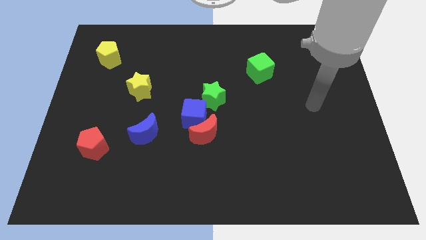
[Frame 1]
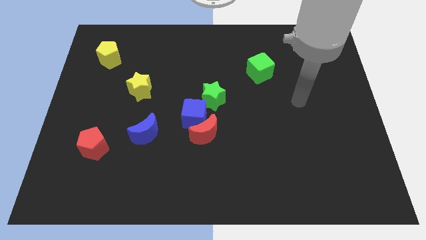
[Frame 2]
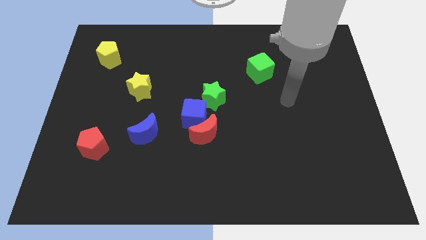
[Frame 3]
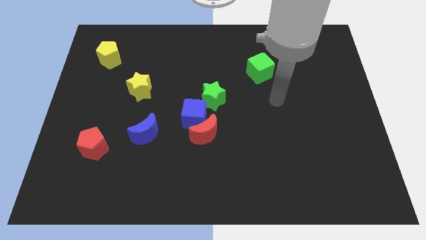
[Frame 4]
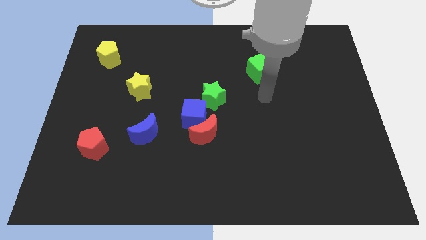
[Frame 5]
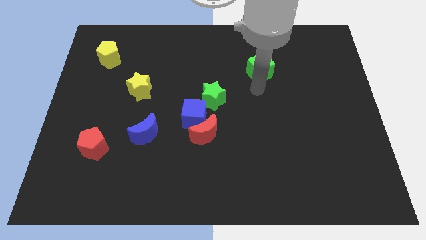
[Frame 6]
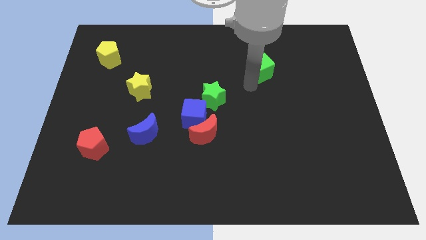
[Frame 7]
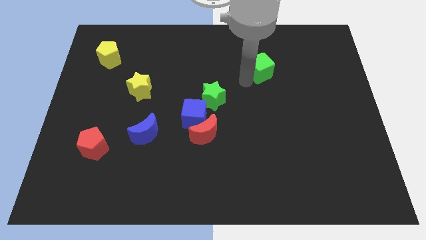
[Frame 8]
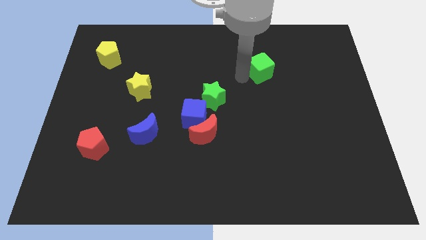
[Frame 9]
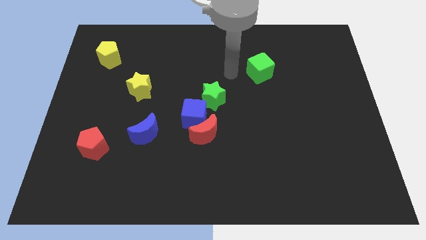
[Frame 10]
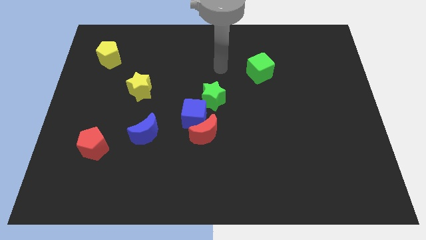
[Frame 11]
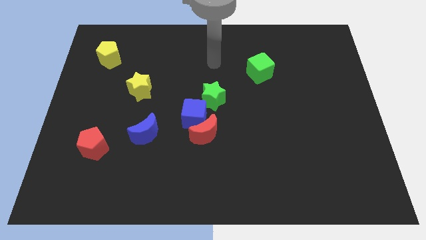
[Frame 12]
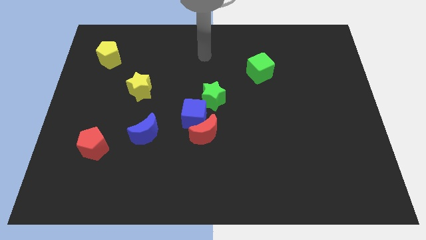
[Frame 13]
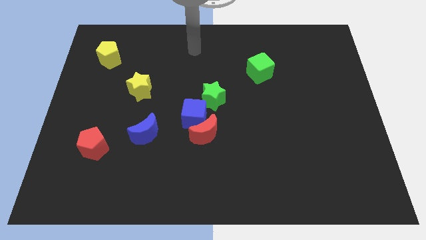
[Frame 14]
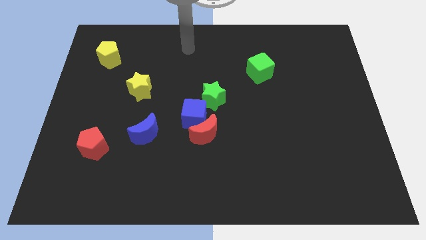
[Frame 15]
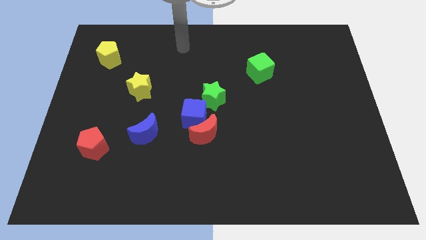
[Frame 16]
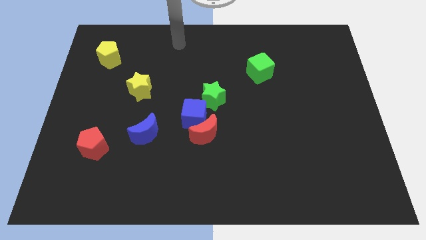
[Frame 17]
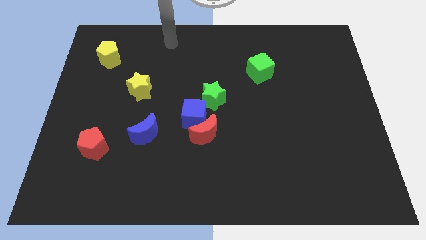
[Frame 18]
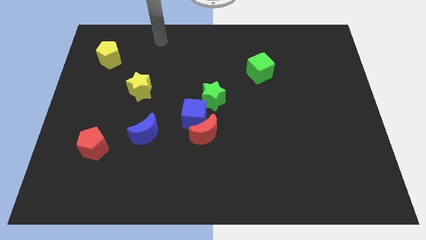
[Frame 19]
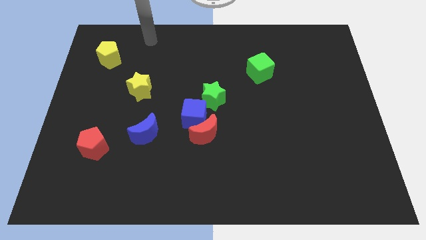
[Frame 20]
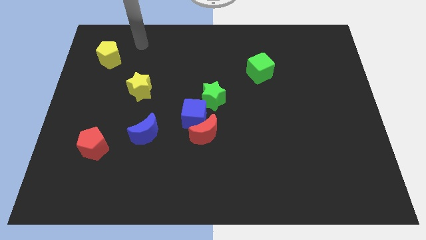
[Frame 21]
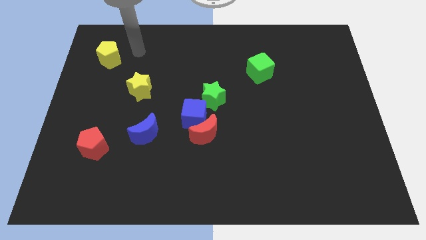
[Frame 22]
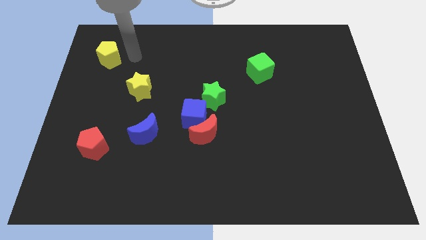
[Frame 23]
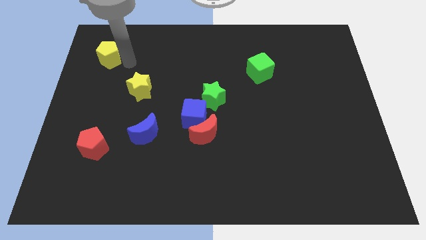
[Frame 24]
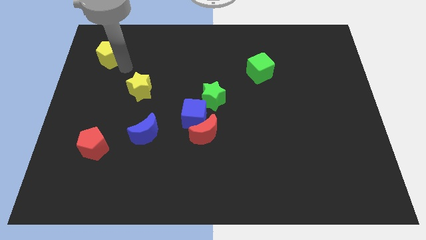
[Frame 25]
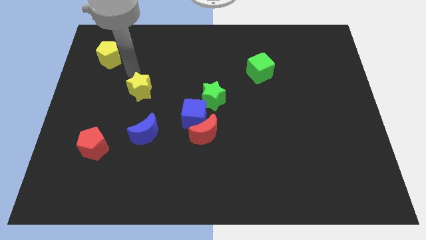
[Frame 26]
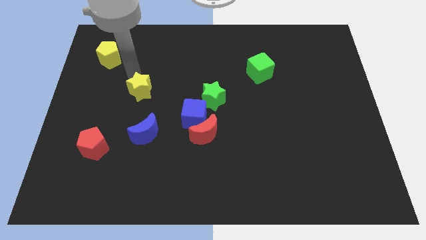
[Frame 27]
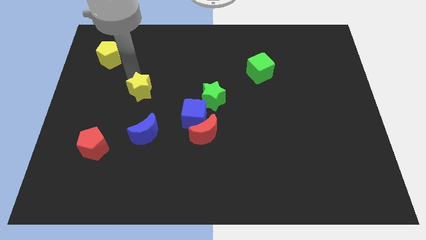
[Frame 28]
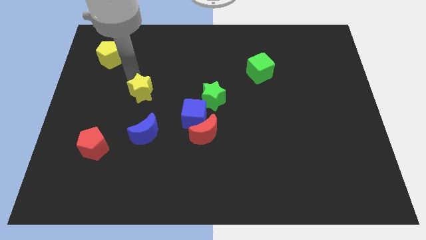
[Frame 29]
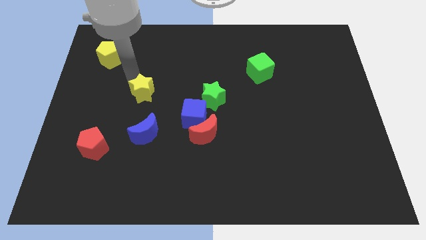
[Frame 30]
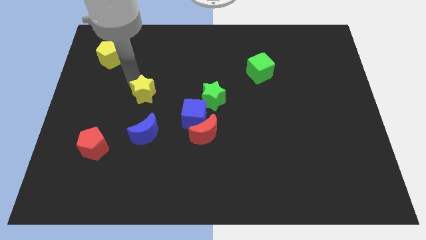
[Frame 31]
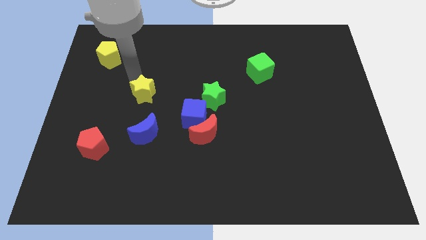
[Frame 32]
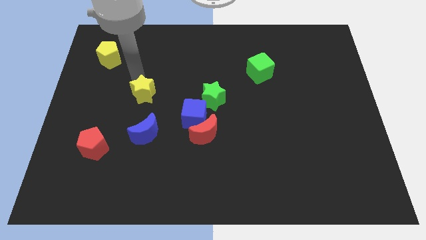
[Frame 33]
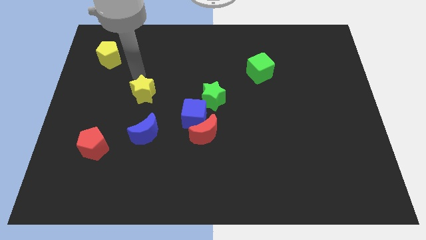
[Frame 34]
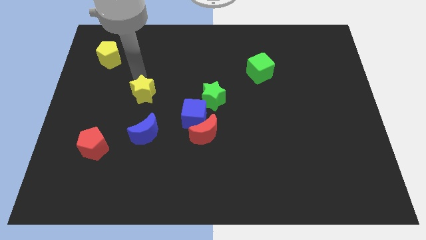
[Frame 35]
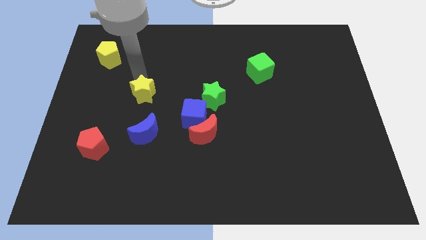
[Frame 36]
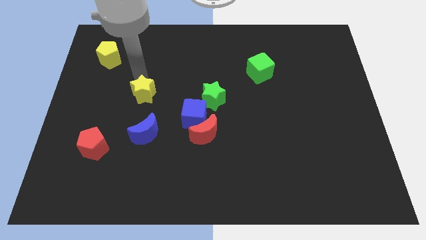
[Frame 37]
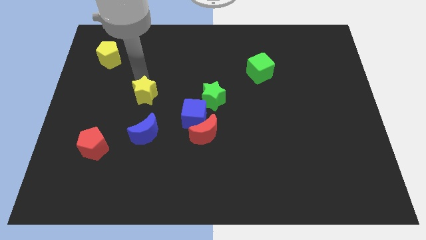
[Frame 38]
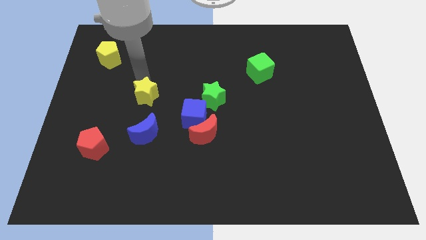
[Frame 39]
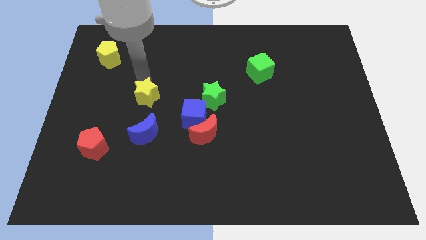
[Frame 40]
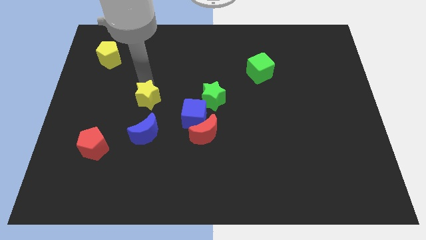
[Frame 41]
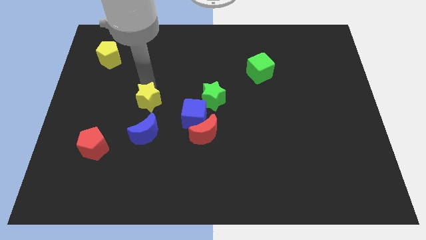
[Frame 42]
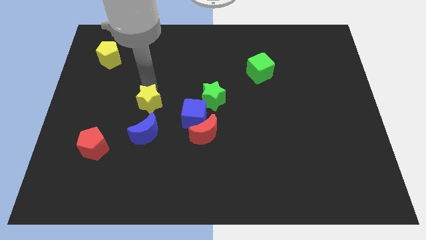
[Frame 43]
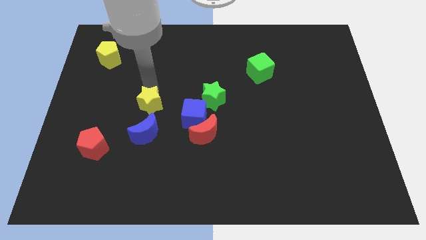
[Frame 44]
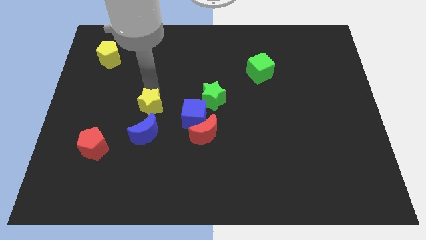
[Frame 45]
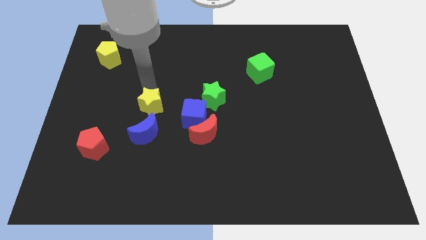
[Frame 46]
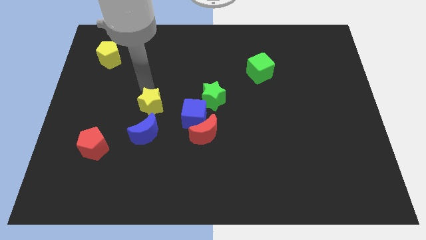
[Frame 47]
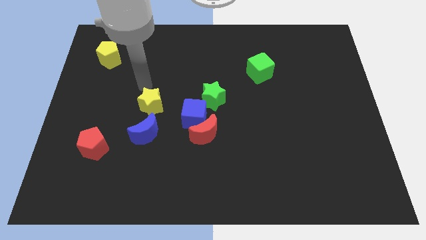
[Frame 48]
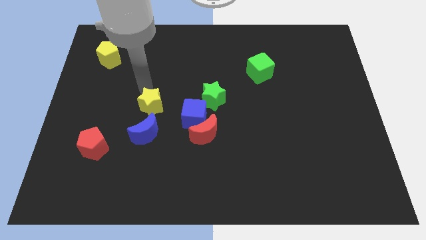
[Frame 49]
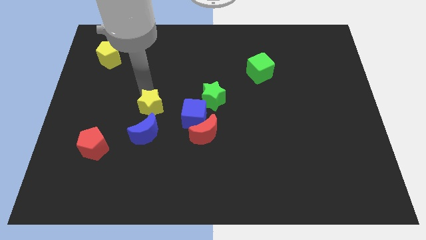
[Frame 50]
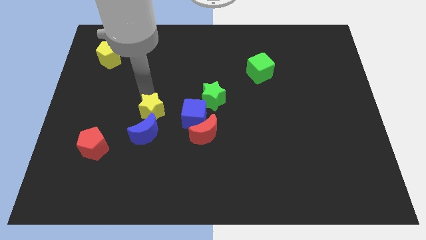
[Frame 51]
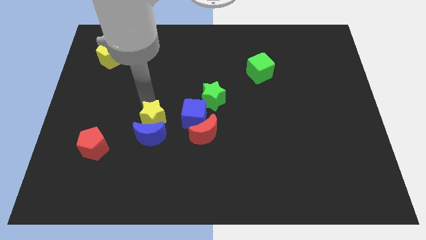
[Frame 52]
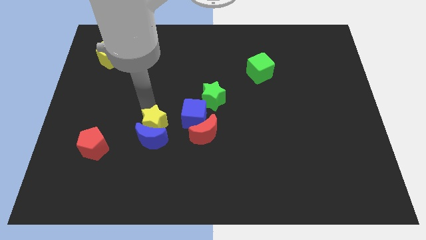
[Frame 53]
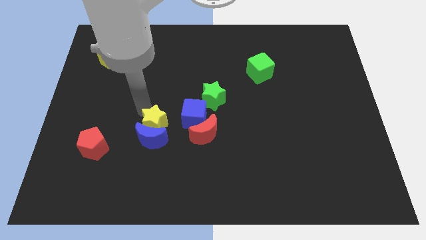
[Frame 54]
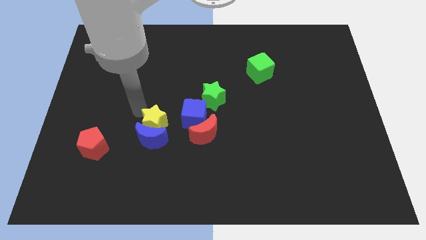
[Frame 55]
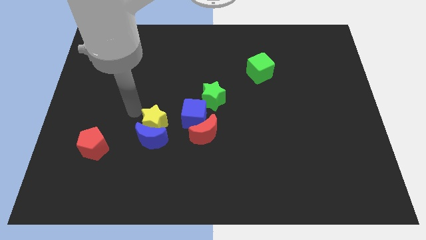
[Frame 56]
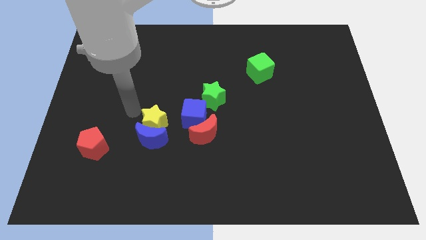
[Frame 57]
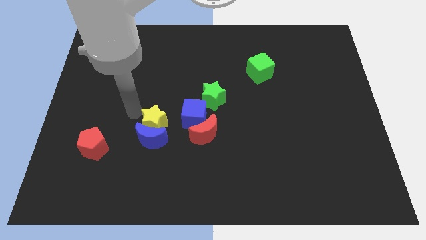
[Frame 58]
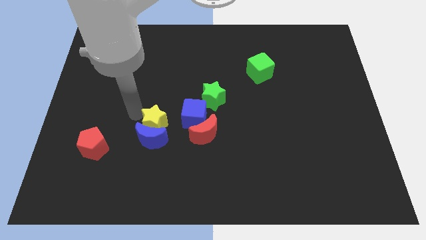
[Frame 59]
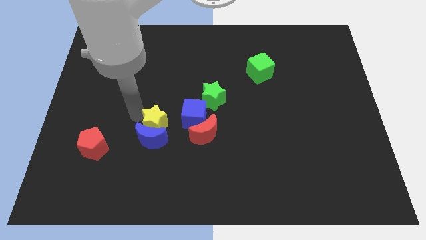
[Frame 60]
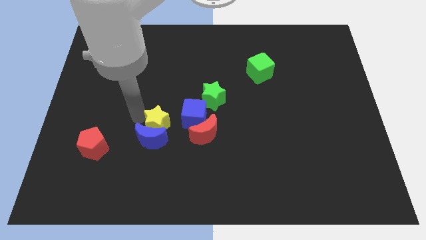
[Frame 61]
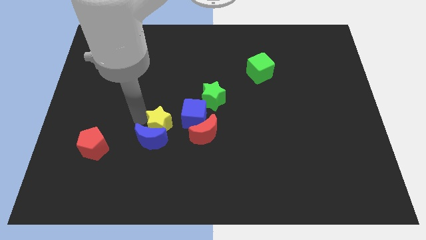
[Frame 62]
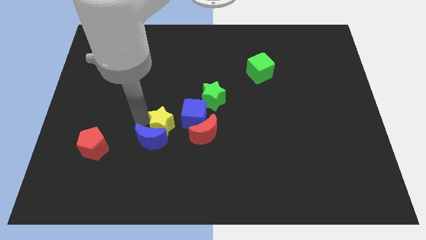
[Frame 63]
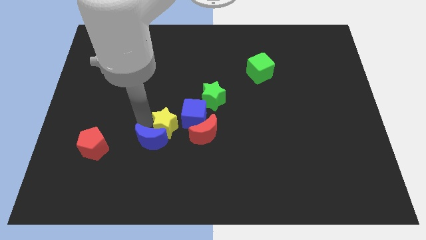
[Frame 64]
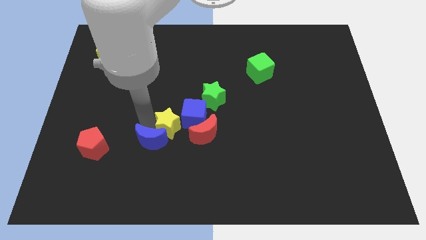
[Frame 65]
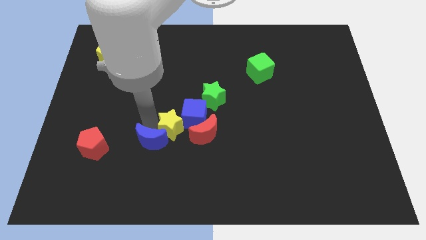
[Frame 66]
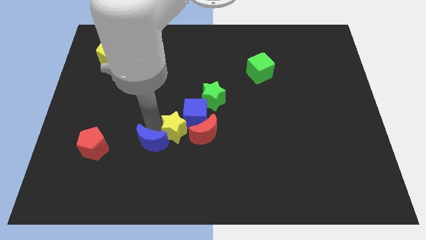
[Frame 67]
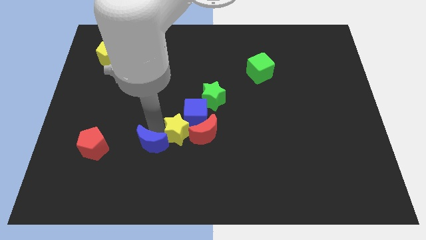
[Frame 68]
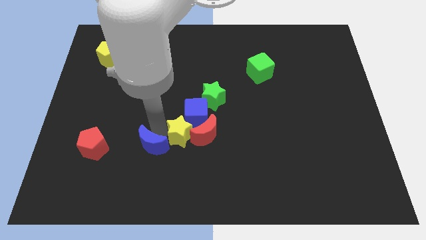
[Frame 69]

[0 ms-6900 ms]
move the yellow star towards the red moon

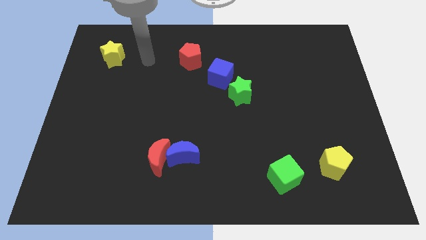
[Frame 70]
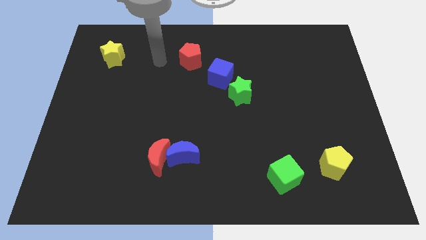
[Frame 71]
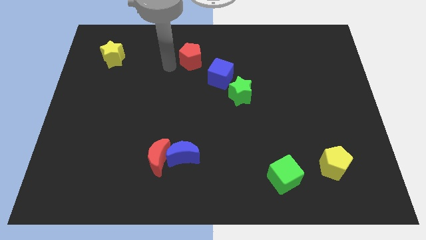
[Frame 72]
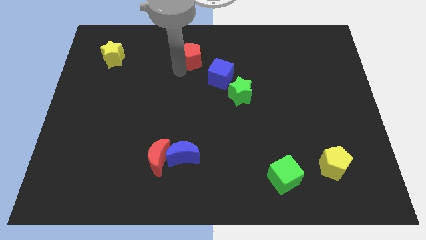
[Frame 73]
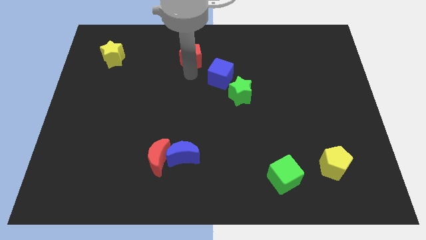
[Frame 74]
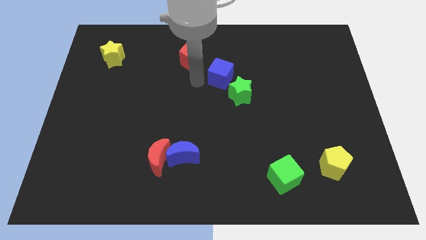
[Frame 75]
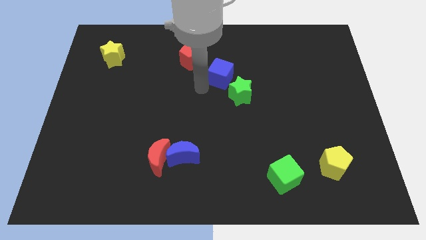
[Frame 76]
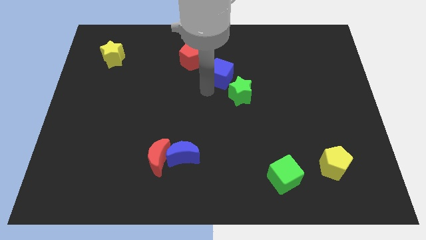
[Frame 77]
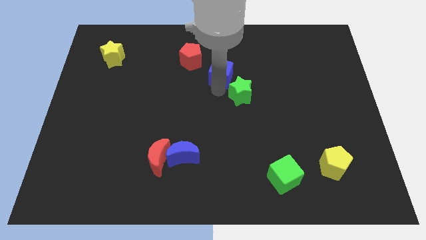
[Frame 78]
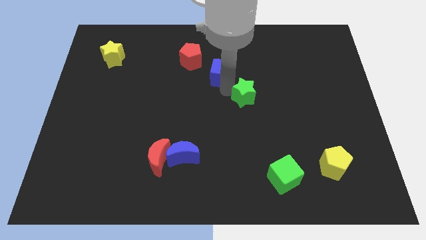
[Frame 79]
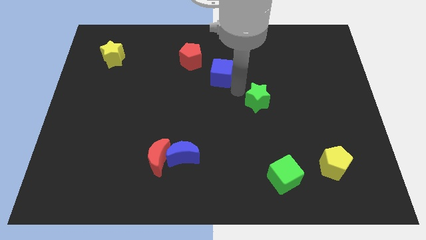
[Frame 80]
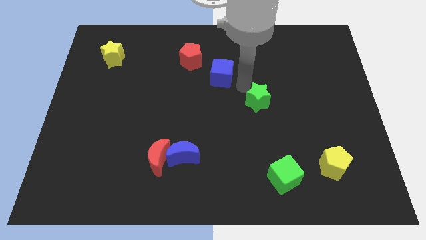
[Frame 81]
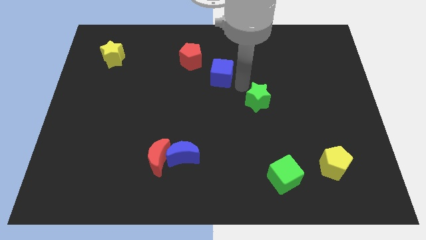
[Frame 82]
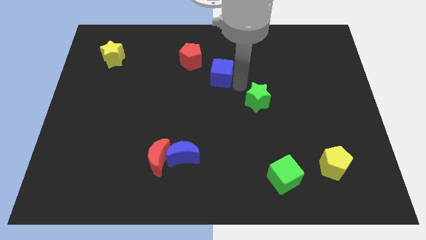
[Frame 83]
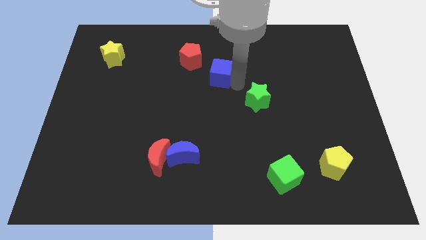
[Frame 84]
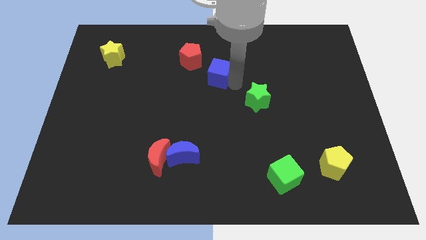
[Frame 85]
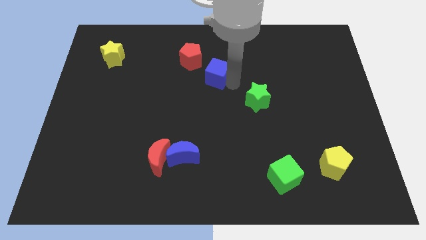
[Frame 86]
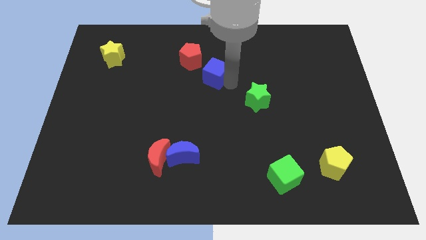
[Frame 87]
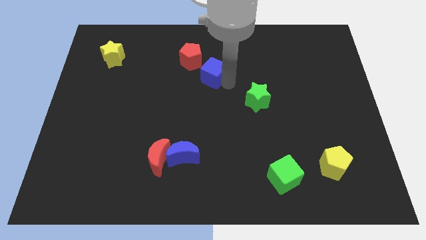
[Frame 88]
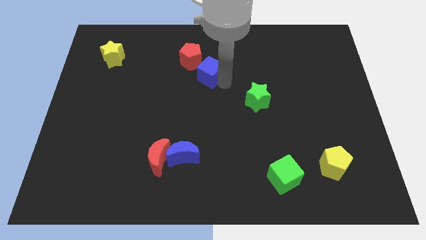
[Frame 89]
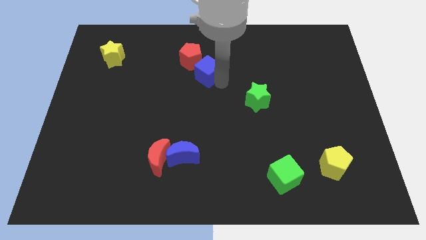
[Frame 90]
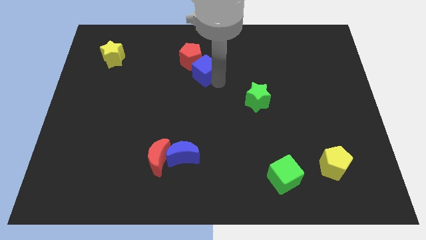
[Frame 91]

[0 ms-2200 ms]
put the blue cube close to the red pentagon
